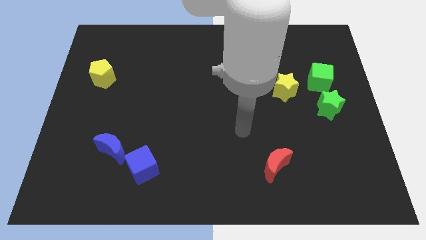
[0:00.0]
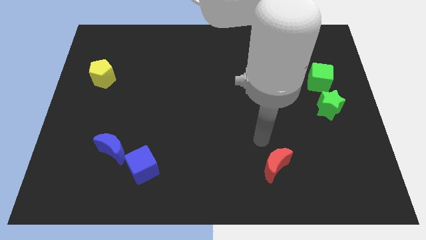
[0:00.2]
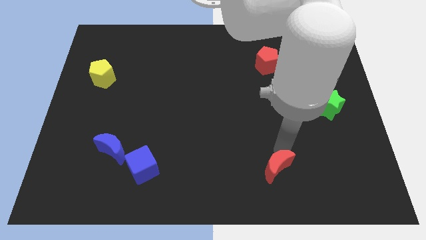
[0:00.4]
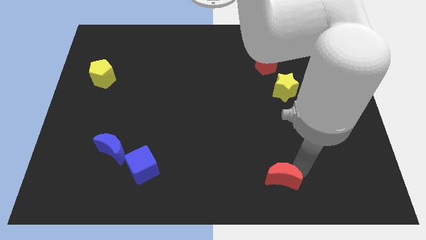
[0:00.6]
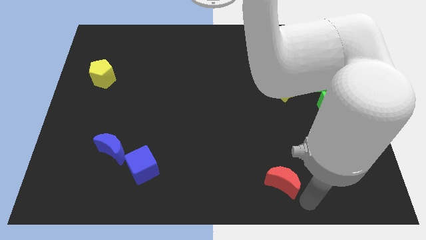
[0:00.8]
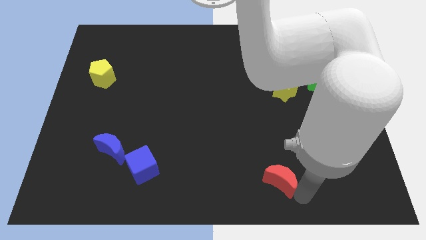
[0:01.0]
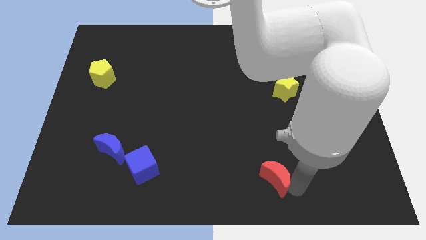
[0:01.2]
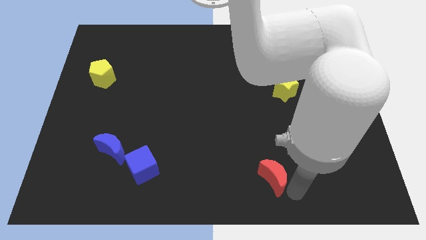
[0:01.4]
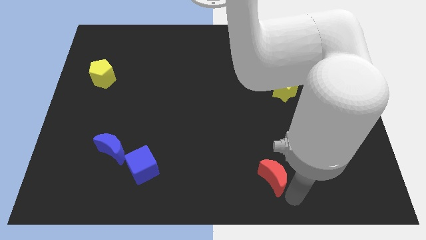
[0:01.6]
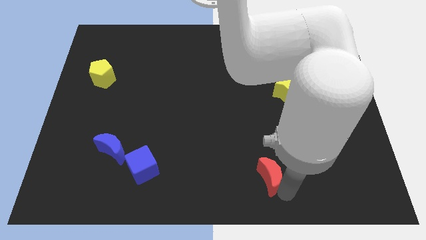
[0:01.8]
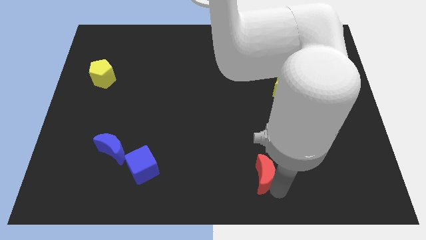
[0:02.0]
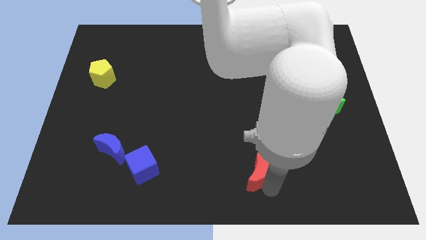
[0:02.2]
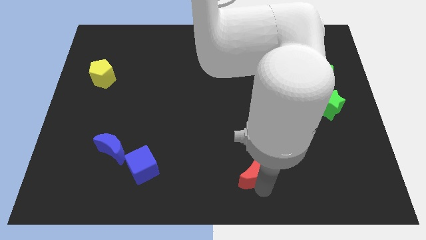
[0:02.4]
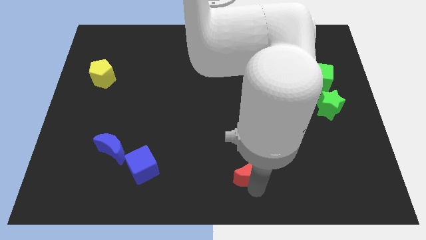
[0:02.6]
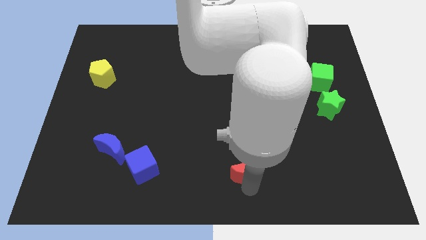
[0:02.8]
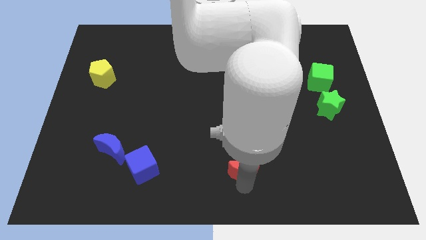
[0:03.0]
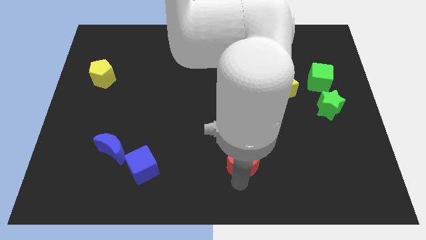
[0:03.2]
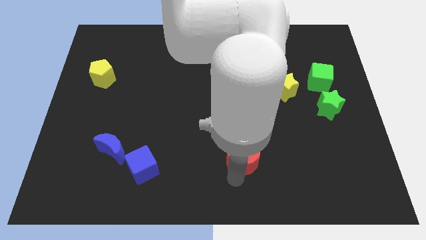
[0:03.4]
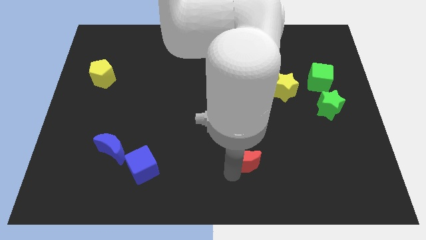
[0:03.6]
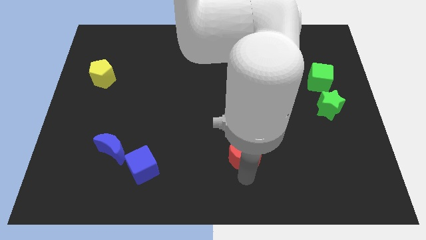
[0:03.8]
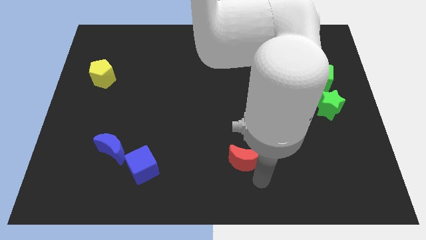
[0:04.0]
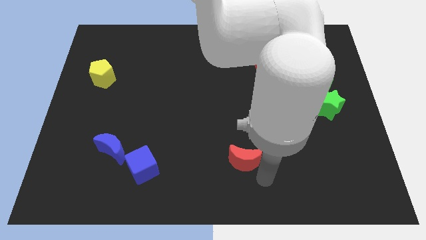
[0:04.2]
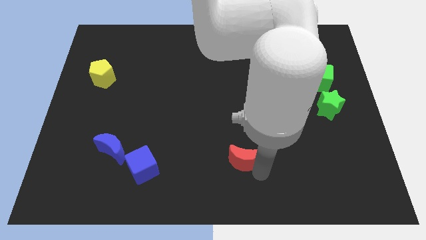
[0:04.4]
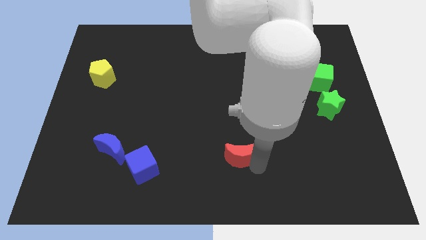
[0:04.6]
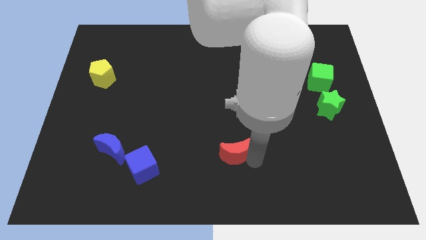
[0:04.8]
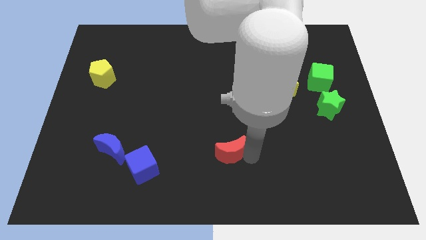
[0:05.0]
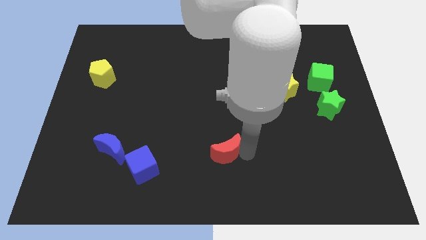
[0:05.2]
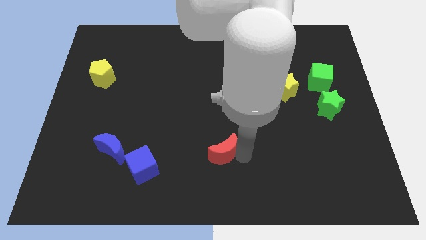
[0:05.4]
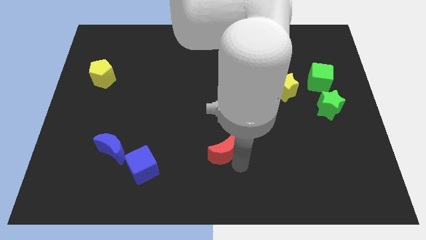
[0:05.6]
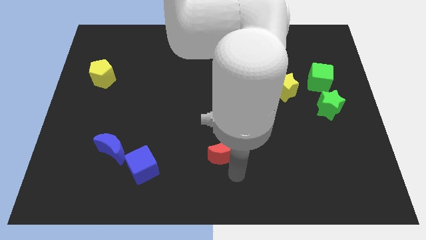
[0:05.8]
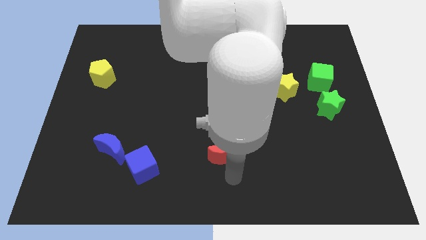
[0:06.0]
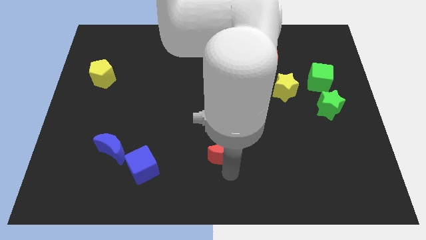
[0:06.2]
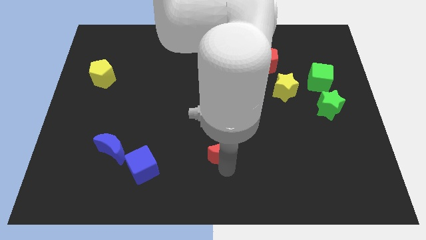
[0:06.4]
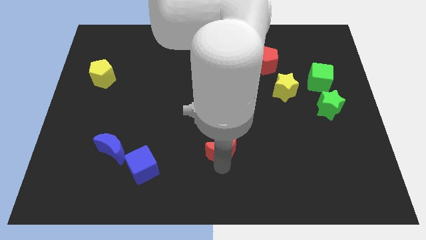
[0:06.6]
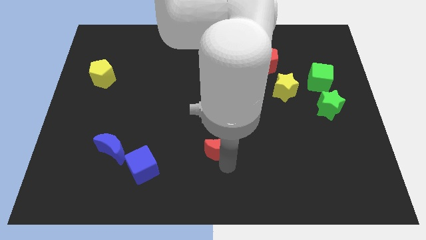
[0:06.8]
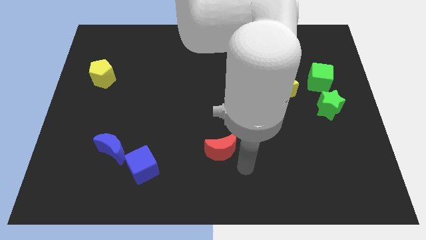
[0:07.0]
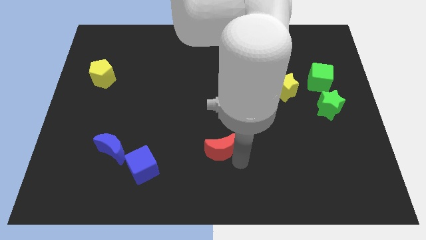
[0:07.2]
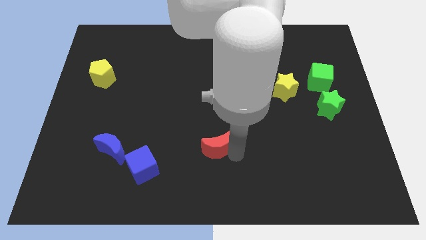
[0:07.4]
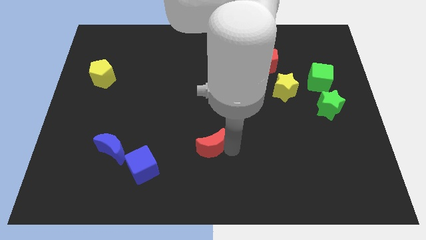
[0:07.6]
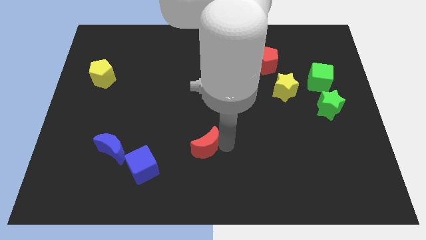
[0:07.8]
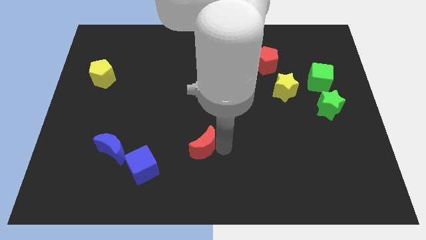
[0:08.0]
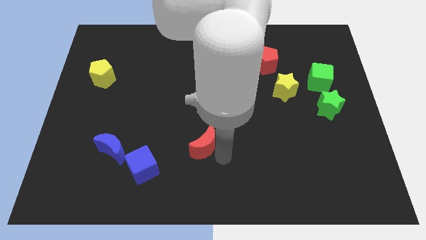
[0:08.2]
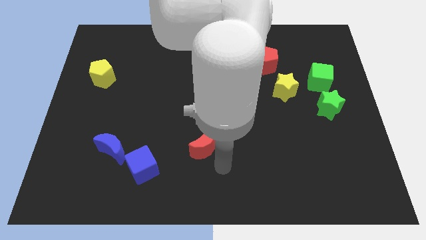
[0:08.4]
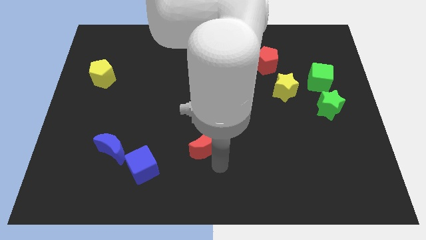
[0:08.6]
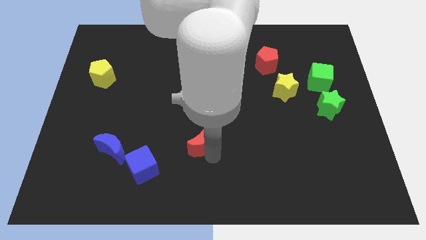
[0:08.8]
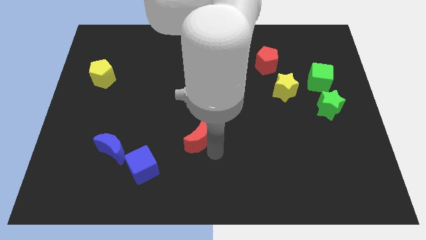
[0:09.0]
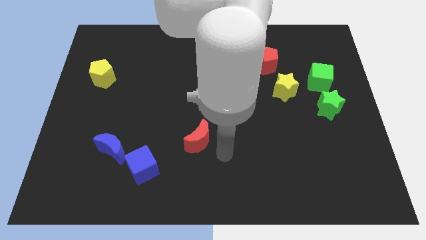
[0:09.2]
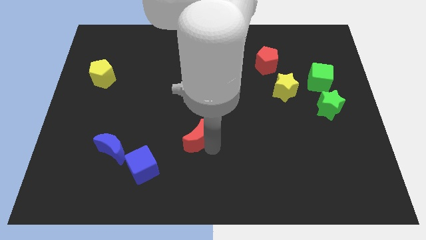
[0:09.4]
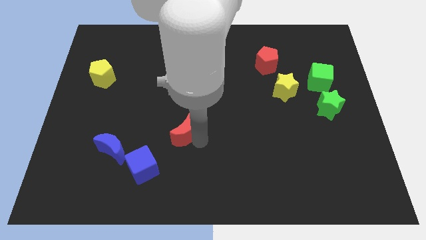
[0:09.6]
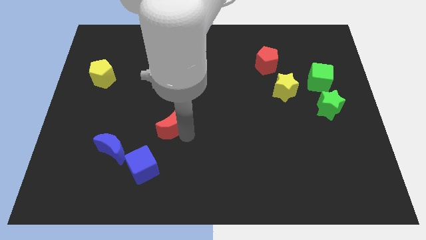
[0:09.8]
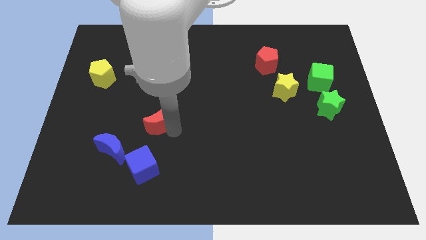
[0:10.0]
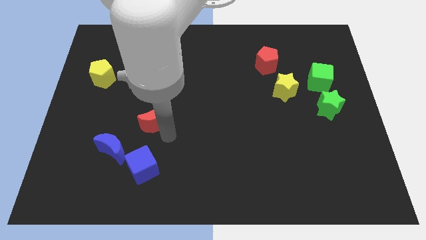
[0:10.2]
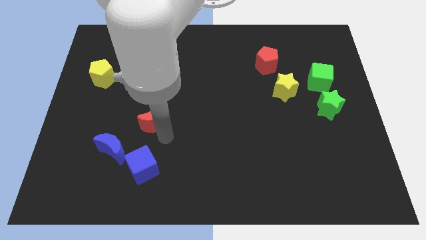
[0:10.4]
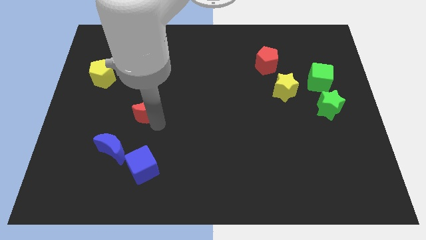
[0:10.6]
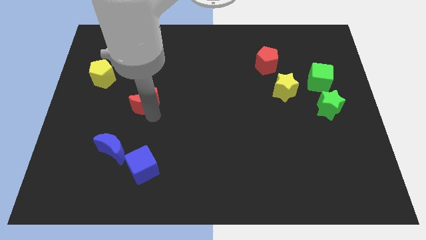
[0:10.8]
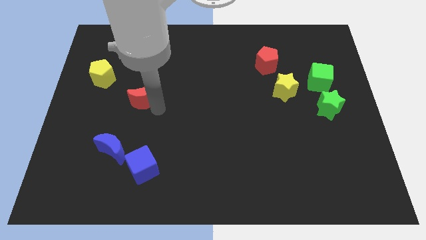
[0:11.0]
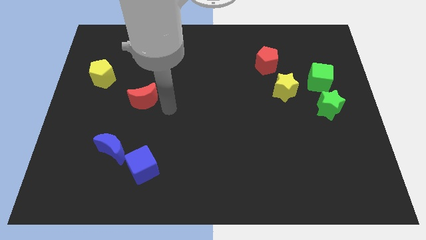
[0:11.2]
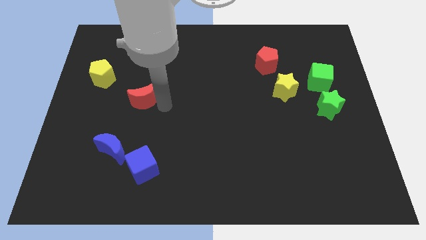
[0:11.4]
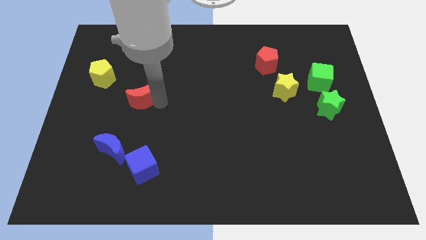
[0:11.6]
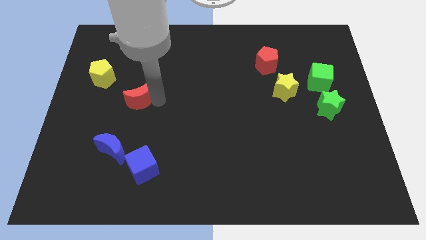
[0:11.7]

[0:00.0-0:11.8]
put the red moon diagonally down and to the right of the yellow pentagon

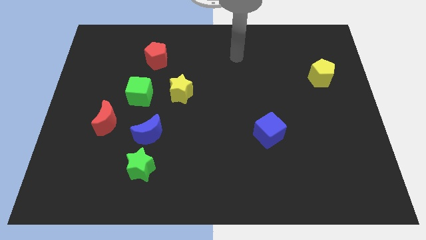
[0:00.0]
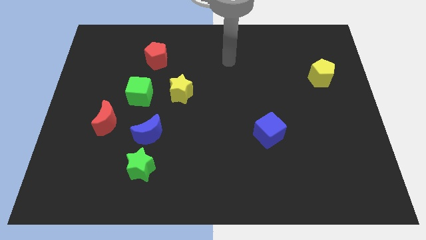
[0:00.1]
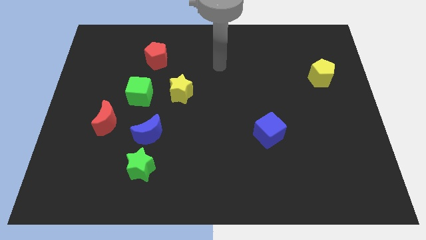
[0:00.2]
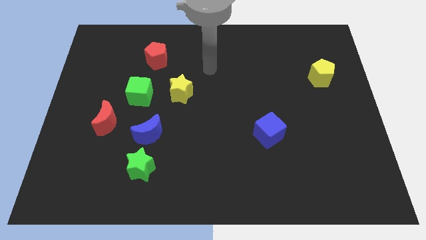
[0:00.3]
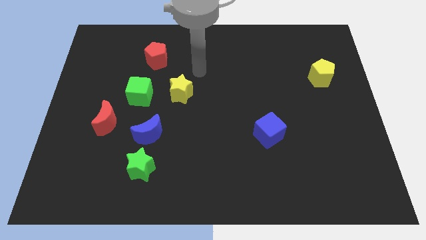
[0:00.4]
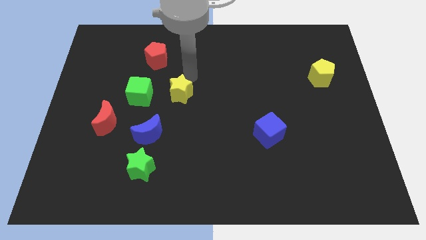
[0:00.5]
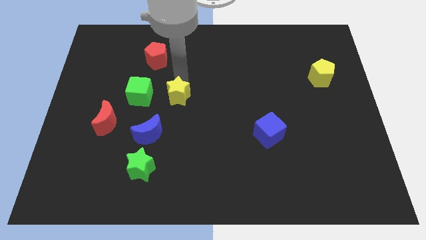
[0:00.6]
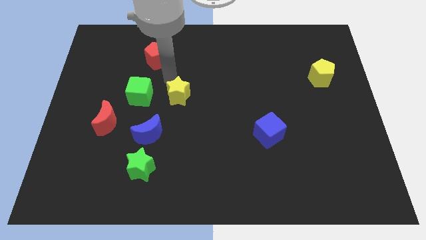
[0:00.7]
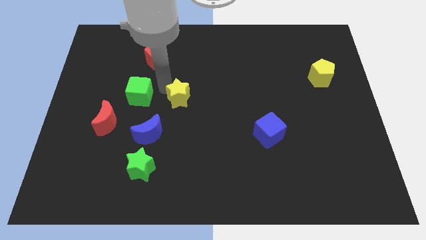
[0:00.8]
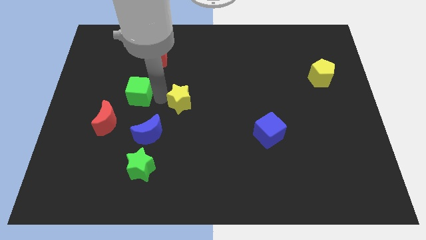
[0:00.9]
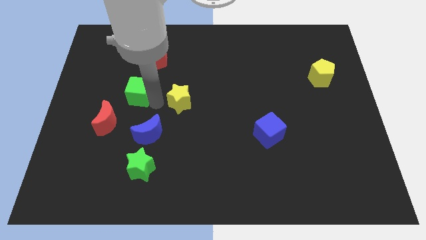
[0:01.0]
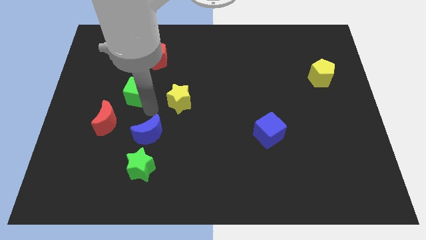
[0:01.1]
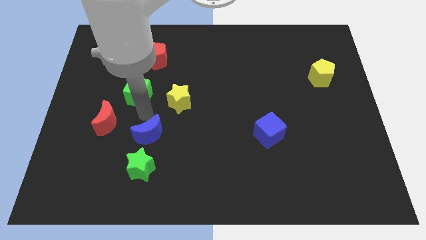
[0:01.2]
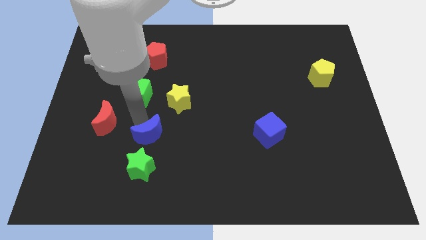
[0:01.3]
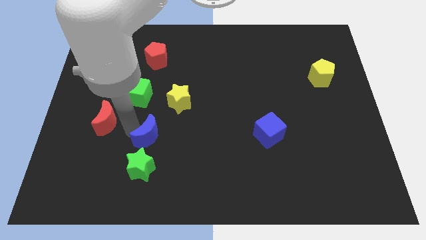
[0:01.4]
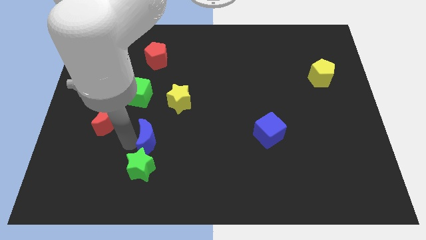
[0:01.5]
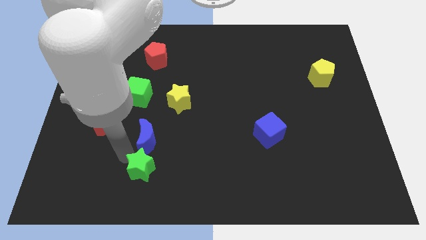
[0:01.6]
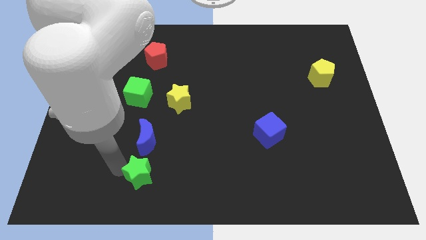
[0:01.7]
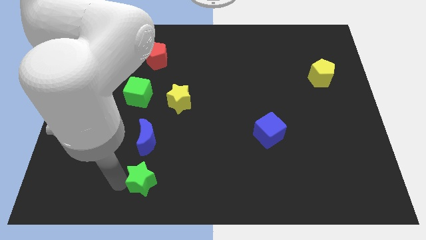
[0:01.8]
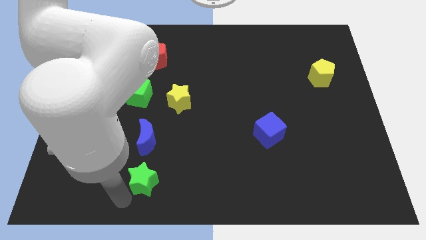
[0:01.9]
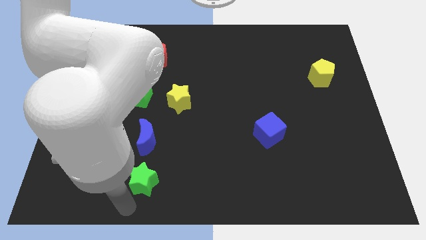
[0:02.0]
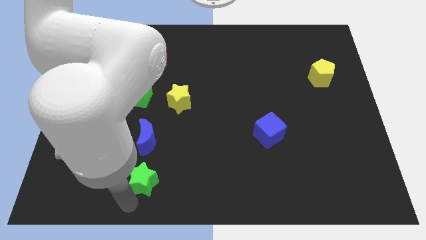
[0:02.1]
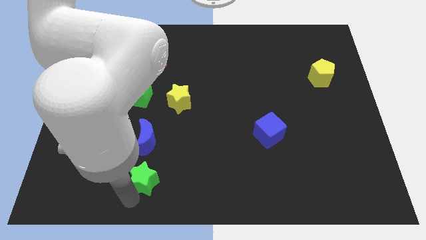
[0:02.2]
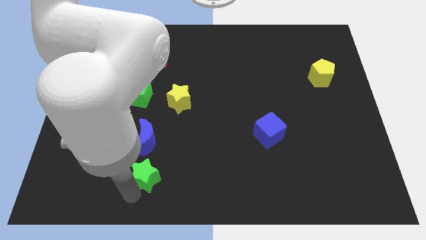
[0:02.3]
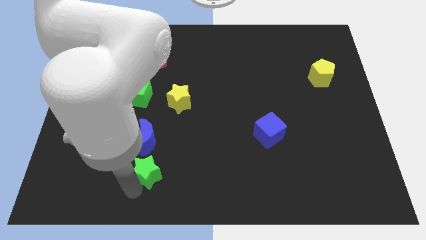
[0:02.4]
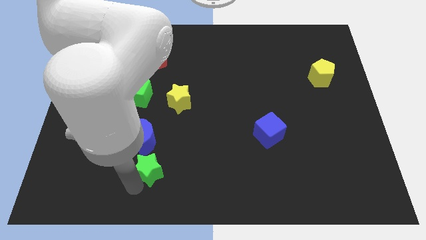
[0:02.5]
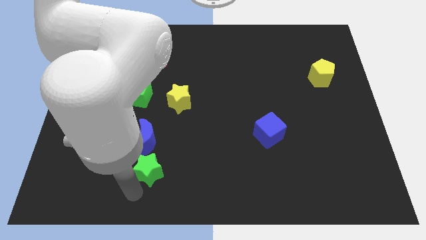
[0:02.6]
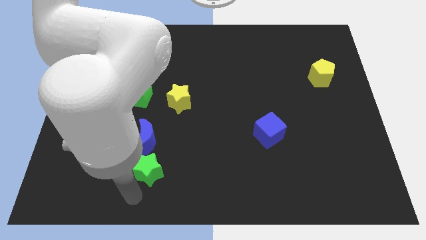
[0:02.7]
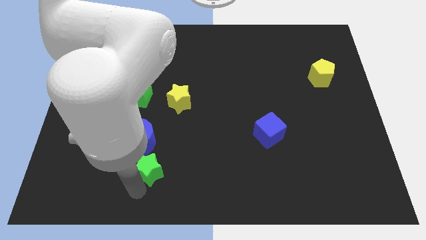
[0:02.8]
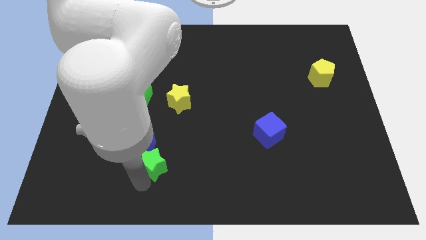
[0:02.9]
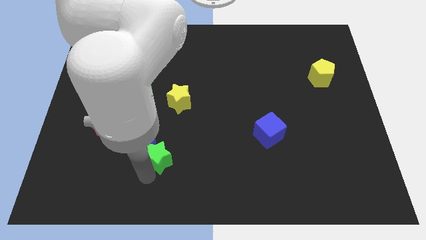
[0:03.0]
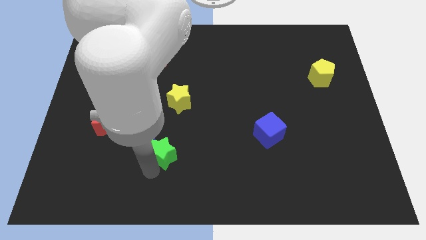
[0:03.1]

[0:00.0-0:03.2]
slide the green star to the bottom side of the yellow star
